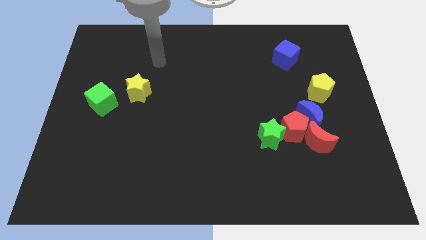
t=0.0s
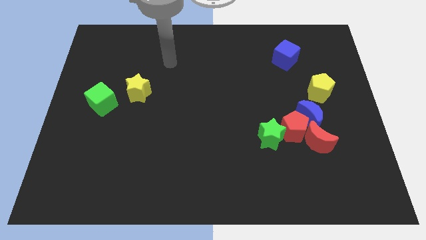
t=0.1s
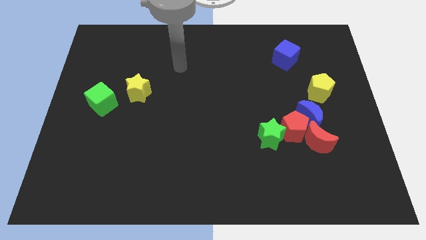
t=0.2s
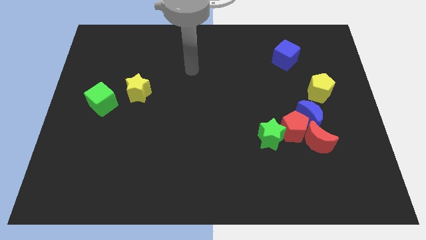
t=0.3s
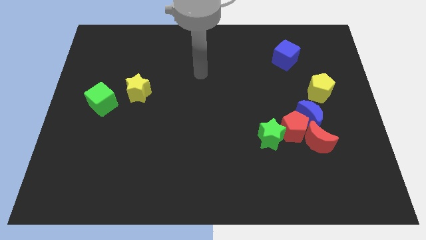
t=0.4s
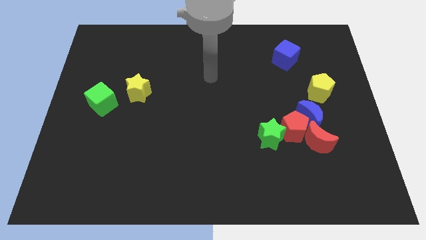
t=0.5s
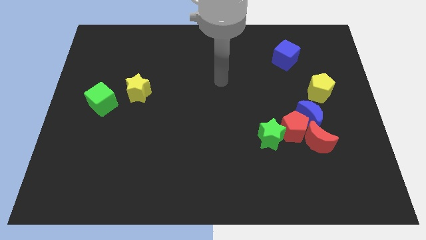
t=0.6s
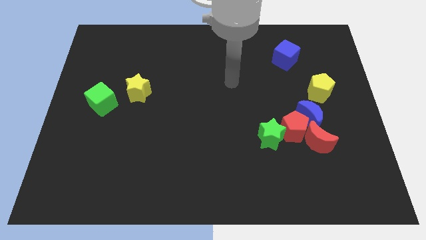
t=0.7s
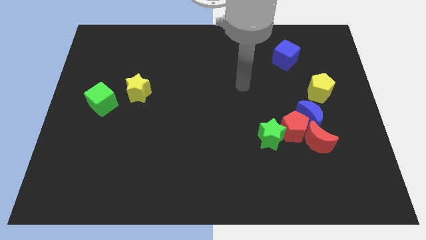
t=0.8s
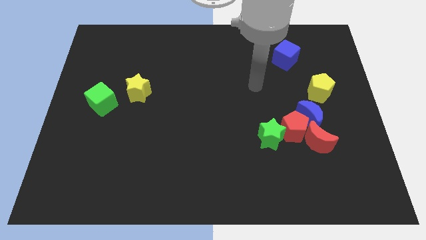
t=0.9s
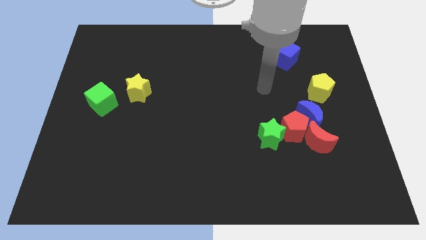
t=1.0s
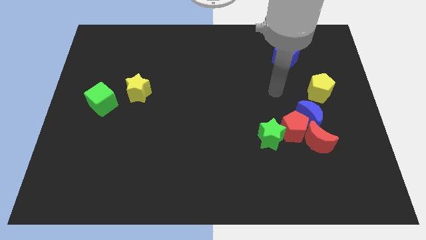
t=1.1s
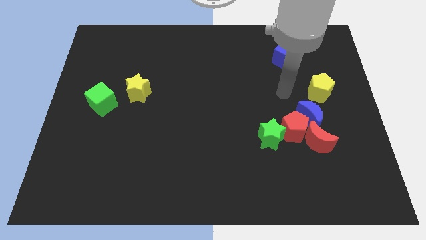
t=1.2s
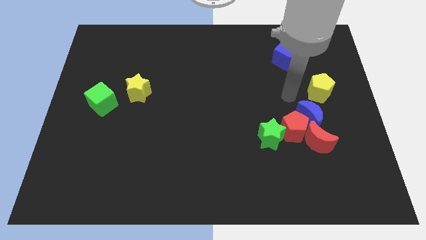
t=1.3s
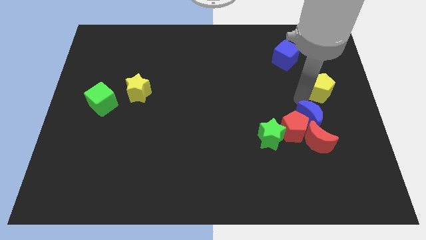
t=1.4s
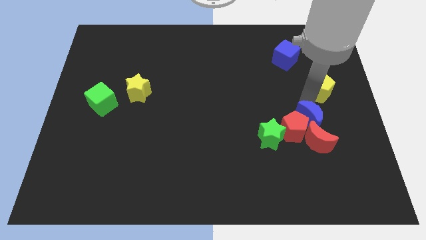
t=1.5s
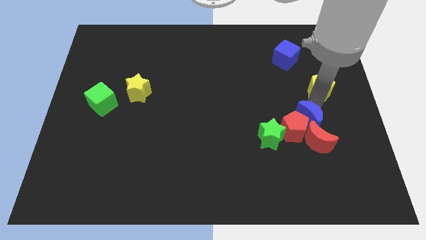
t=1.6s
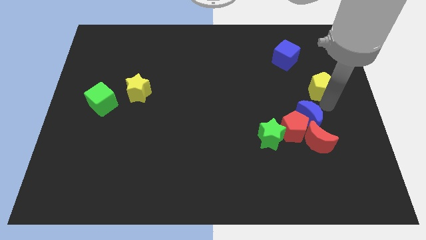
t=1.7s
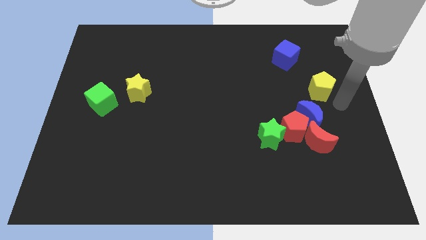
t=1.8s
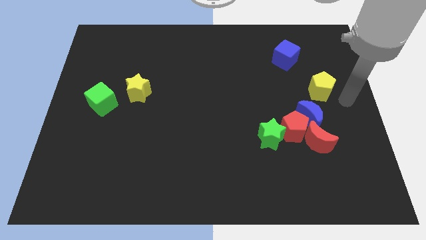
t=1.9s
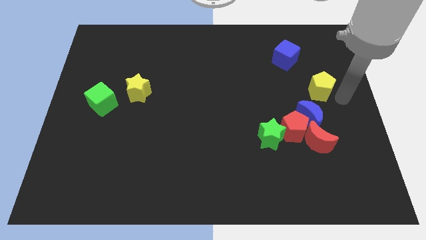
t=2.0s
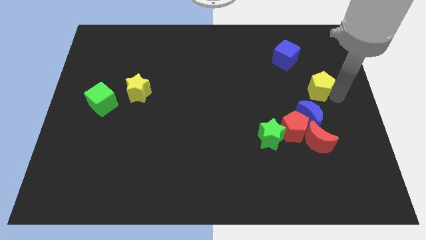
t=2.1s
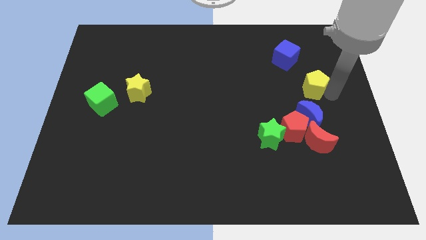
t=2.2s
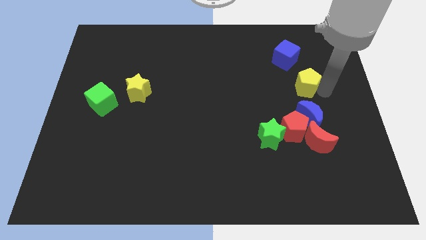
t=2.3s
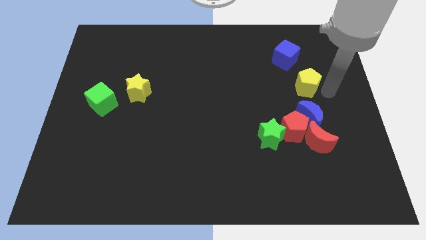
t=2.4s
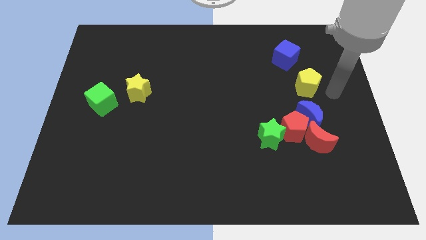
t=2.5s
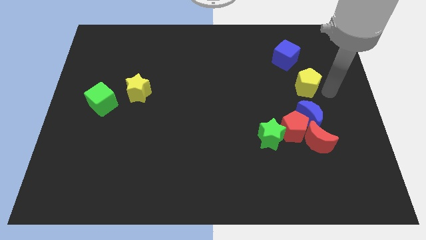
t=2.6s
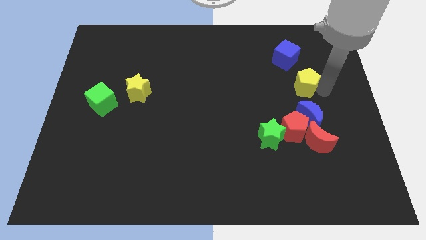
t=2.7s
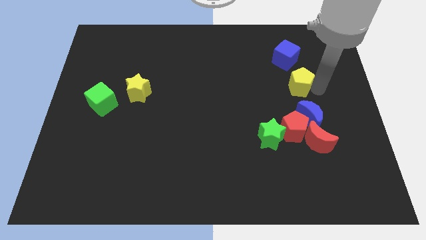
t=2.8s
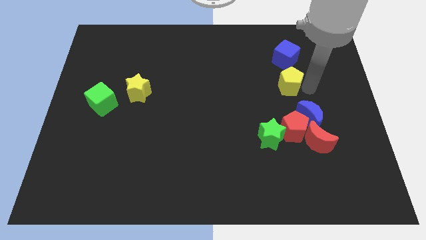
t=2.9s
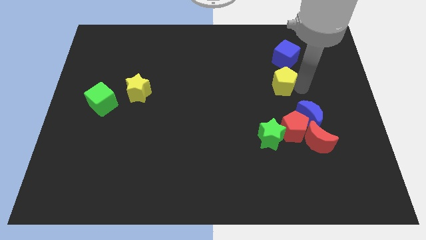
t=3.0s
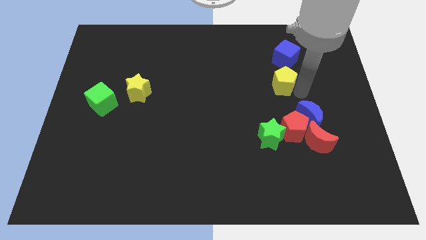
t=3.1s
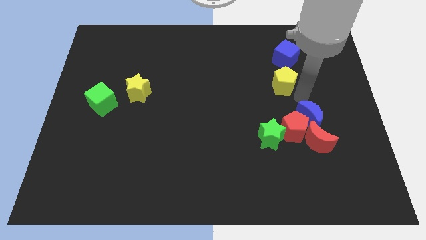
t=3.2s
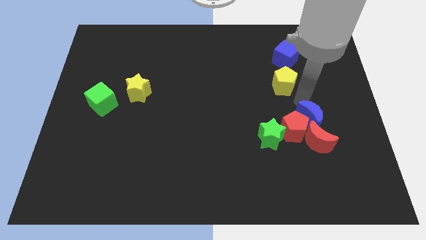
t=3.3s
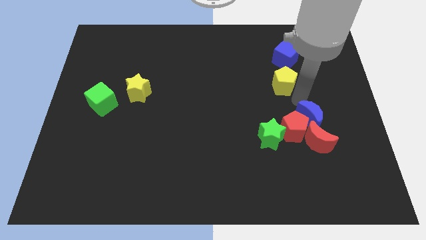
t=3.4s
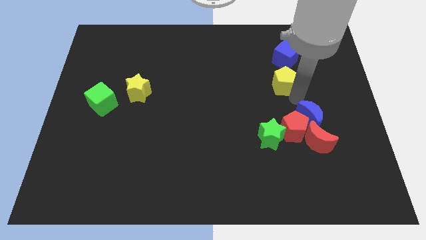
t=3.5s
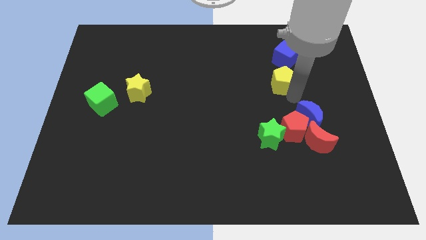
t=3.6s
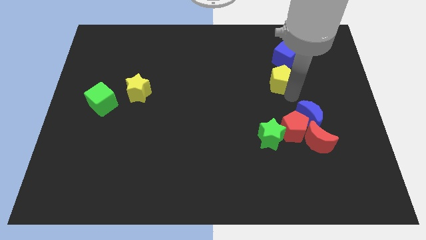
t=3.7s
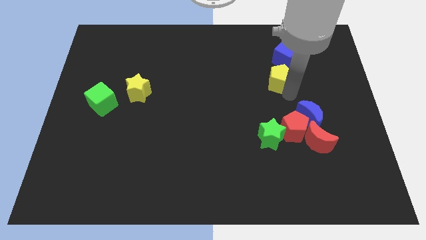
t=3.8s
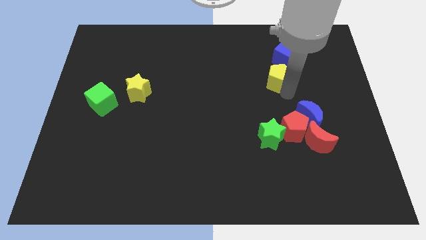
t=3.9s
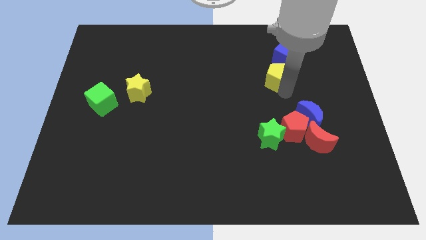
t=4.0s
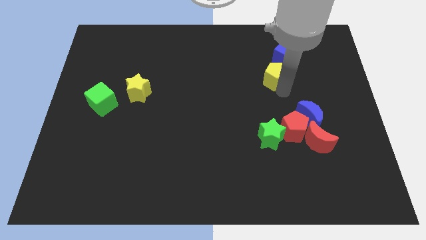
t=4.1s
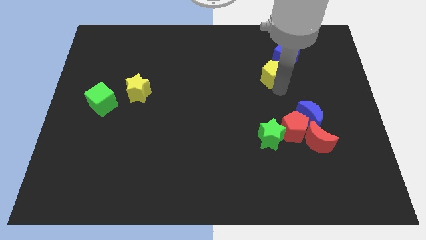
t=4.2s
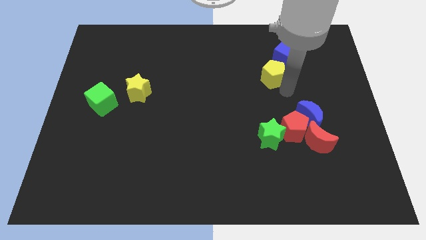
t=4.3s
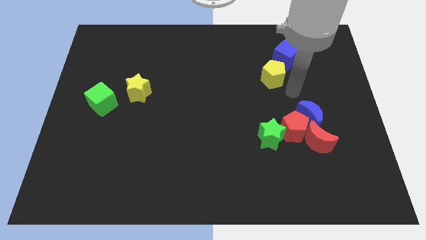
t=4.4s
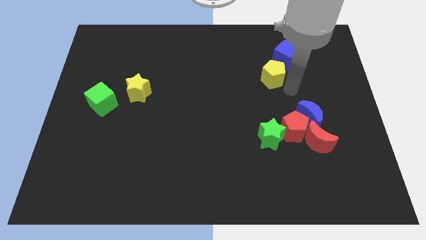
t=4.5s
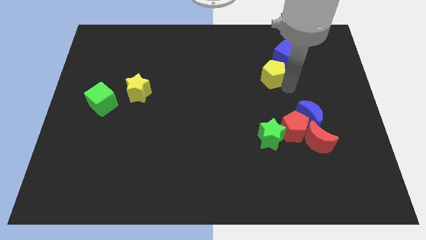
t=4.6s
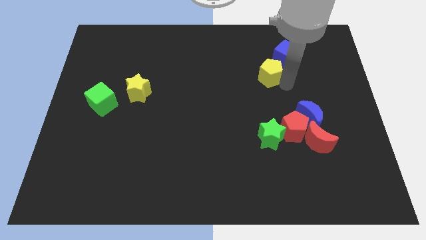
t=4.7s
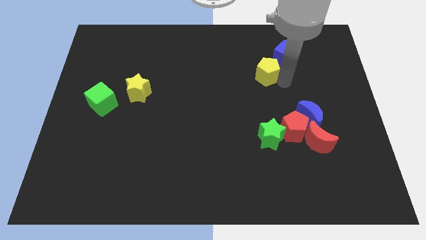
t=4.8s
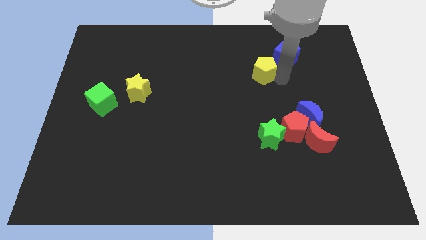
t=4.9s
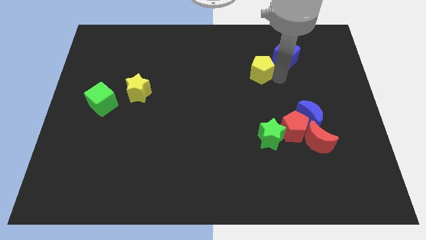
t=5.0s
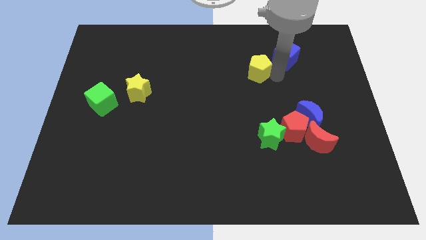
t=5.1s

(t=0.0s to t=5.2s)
push the yellow pentagon to the left of the blue cube

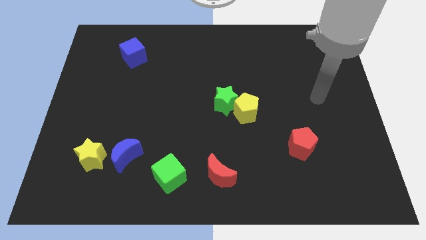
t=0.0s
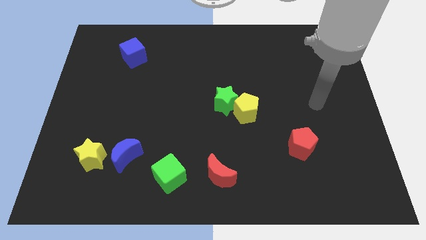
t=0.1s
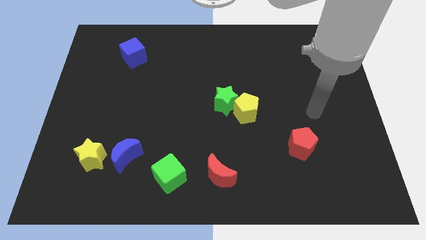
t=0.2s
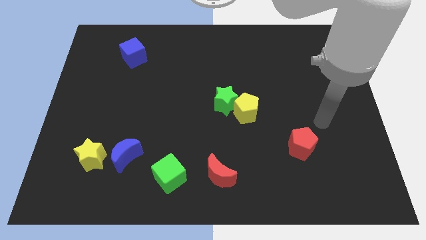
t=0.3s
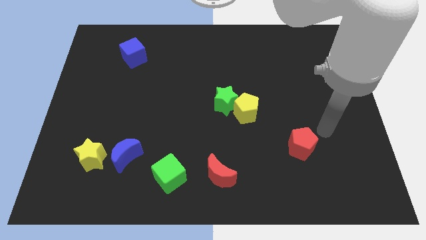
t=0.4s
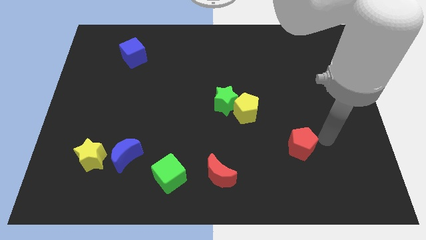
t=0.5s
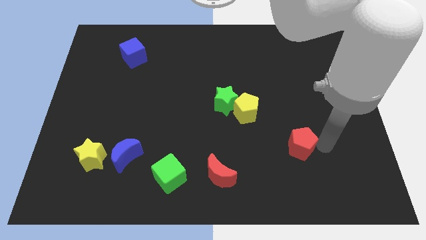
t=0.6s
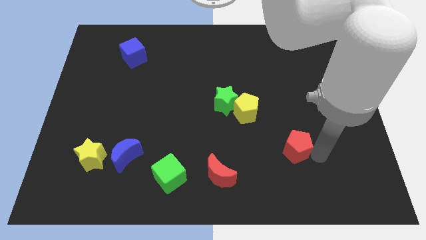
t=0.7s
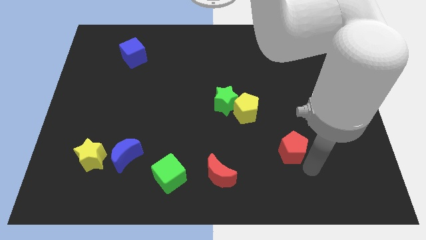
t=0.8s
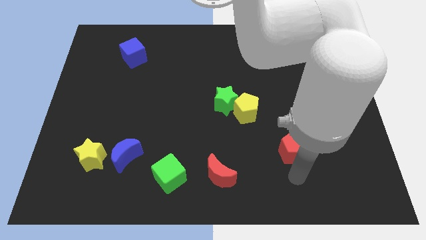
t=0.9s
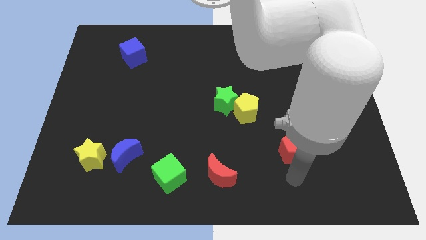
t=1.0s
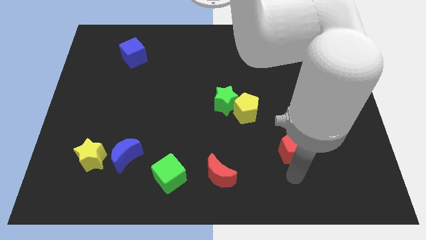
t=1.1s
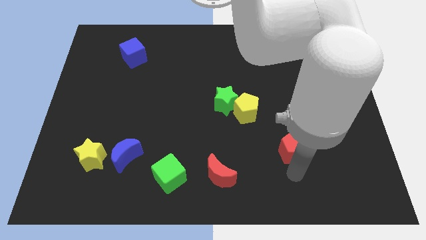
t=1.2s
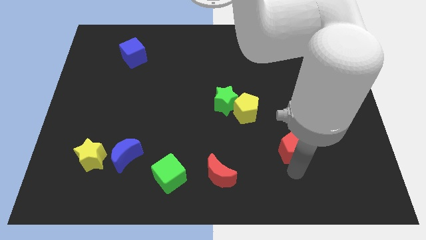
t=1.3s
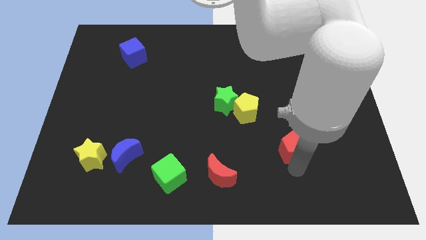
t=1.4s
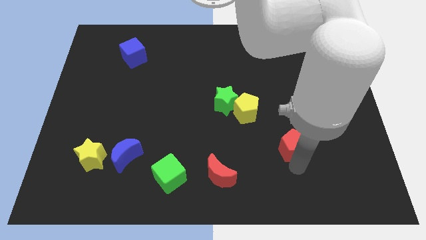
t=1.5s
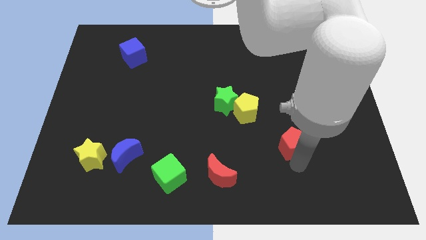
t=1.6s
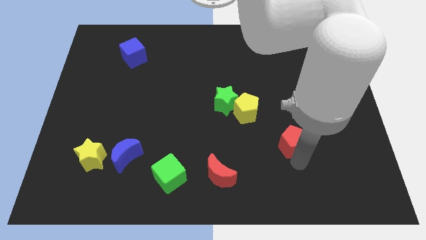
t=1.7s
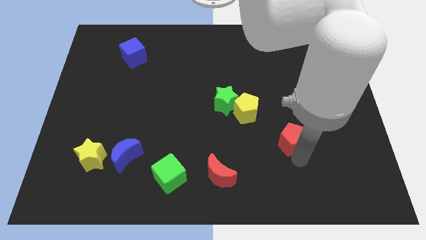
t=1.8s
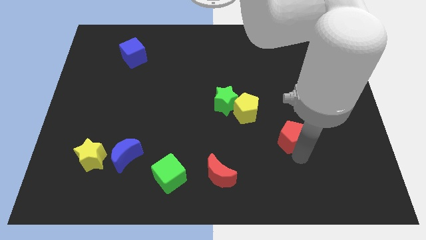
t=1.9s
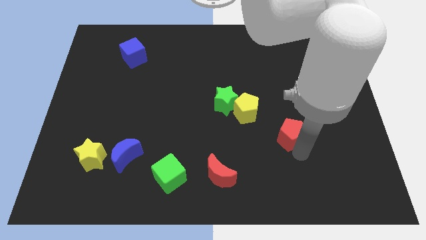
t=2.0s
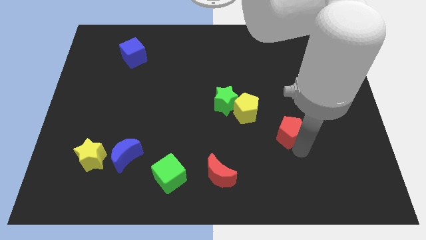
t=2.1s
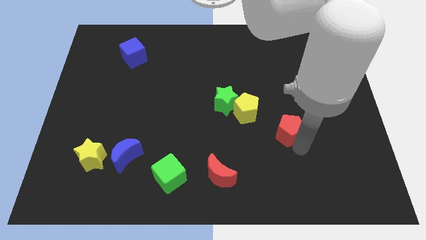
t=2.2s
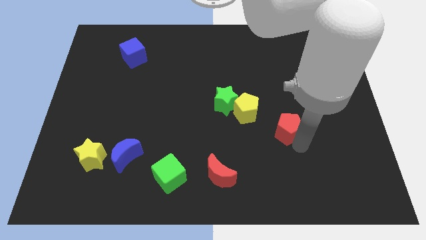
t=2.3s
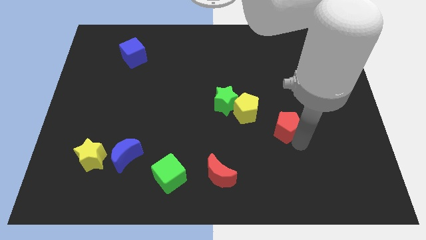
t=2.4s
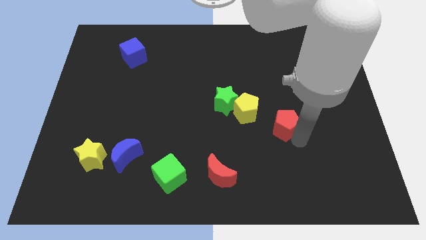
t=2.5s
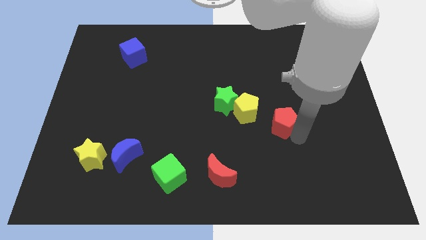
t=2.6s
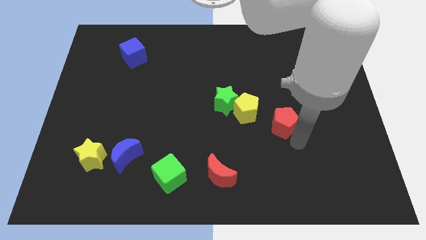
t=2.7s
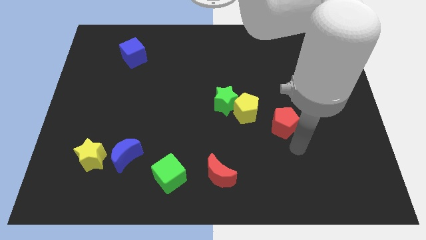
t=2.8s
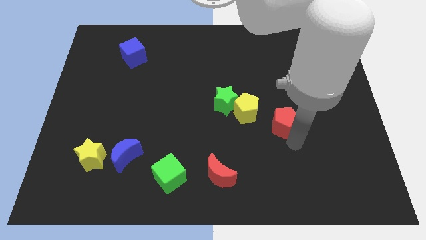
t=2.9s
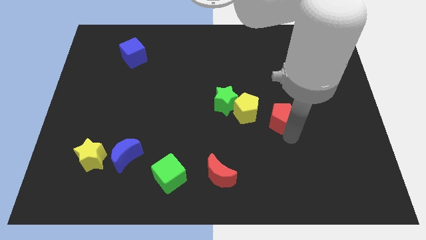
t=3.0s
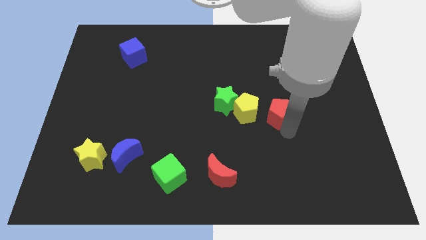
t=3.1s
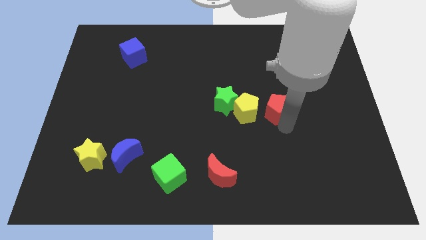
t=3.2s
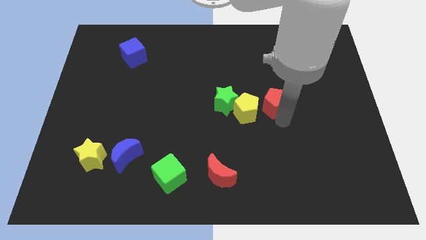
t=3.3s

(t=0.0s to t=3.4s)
push the red pentagon to the top right of the yellow pentagon
